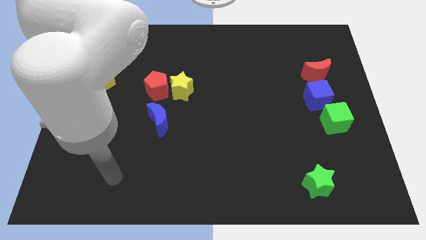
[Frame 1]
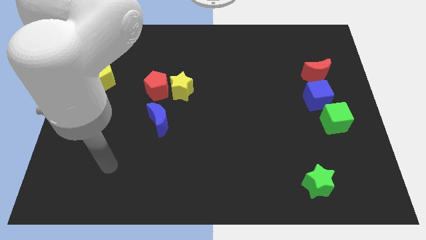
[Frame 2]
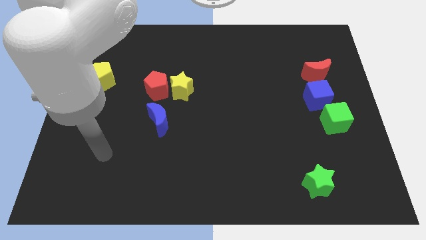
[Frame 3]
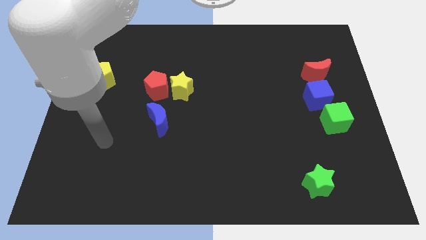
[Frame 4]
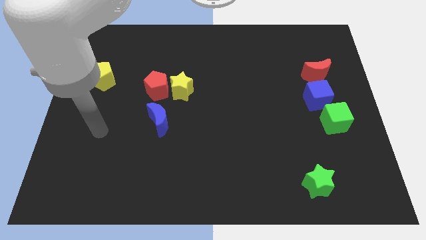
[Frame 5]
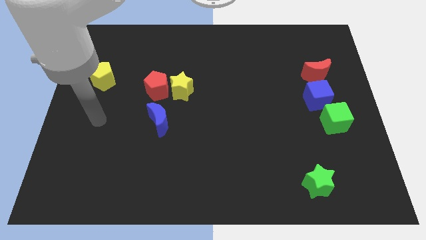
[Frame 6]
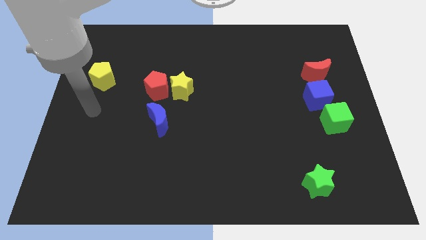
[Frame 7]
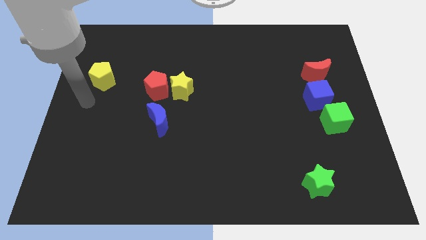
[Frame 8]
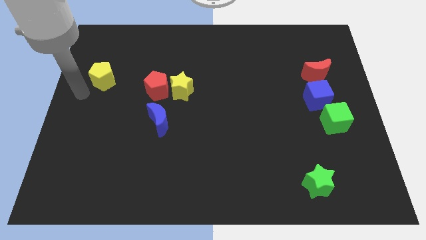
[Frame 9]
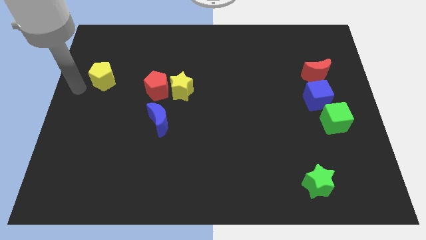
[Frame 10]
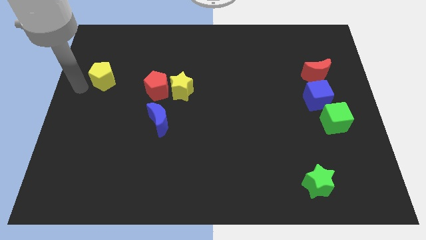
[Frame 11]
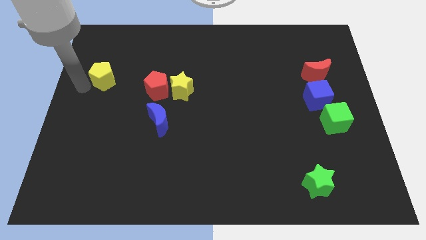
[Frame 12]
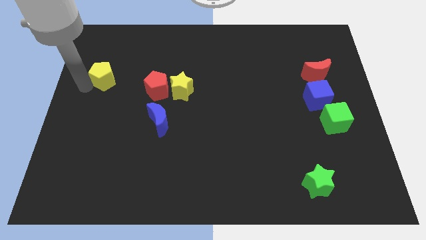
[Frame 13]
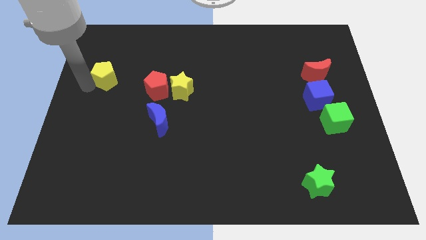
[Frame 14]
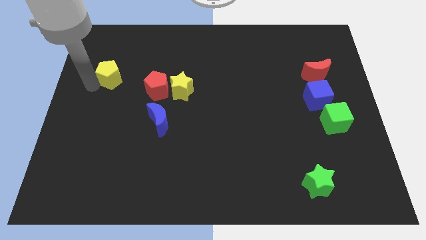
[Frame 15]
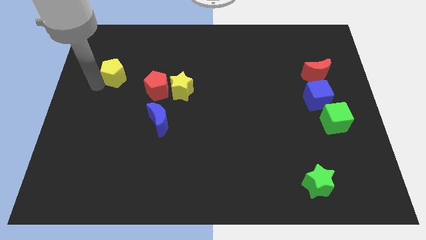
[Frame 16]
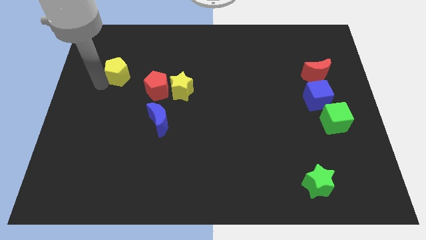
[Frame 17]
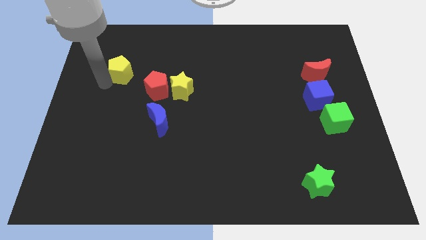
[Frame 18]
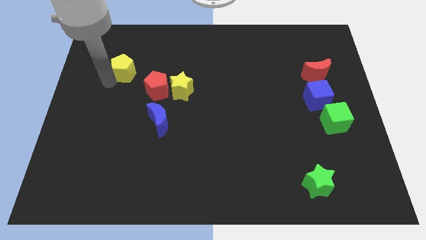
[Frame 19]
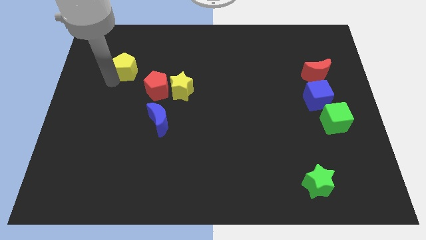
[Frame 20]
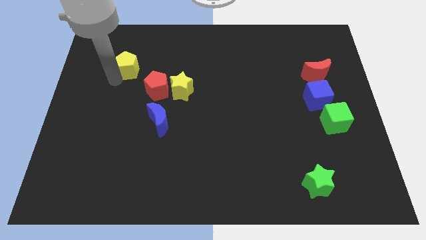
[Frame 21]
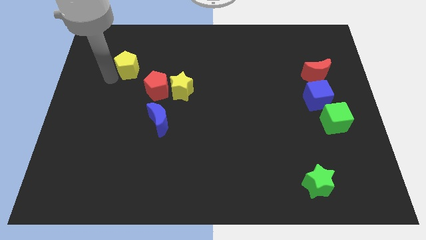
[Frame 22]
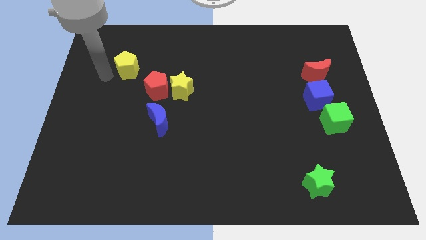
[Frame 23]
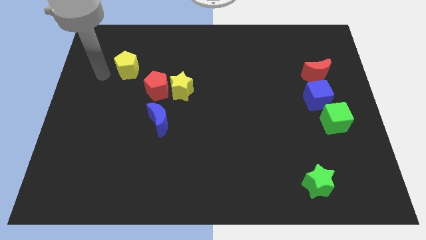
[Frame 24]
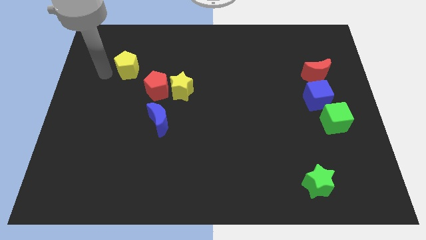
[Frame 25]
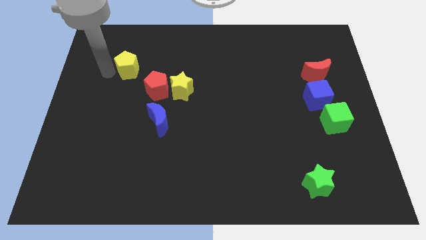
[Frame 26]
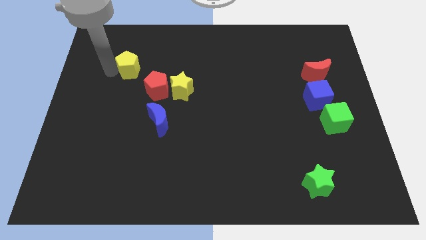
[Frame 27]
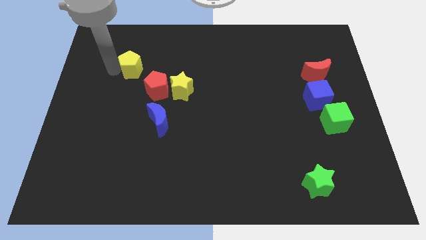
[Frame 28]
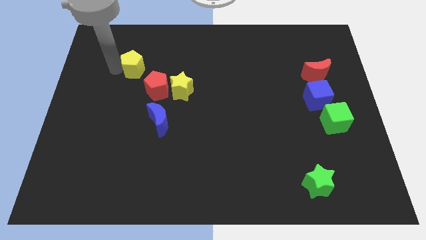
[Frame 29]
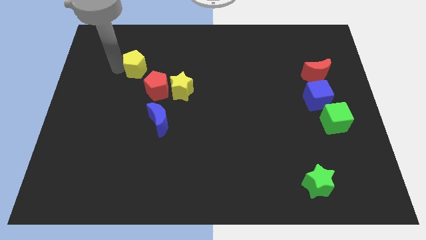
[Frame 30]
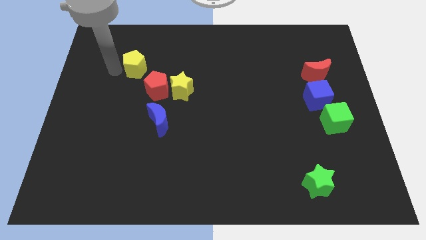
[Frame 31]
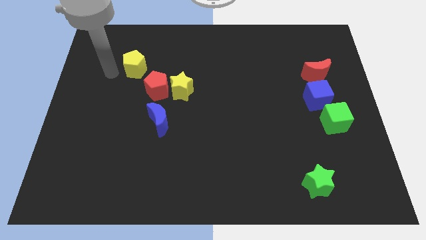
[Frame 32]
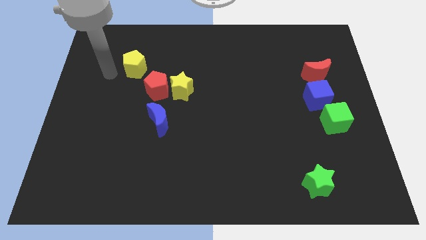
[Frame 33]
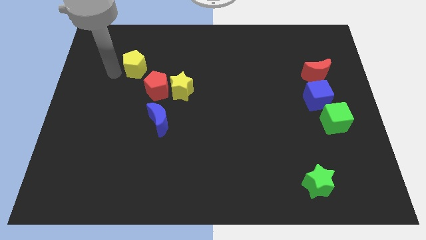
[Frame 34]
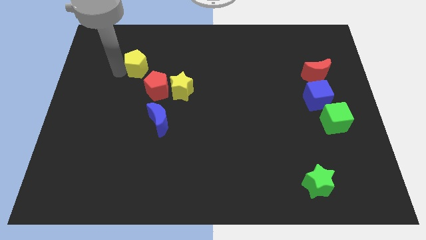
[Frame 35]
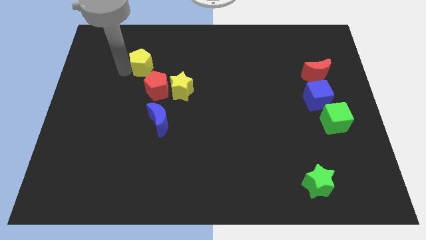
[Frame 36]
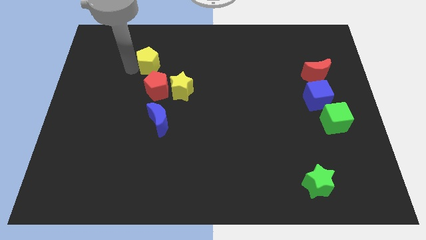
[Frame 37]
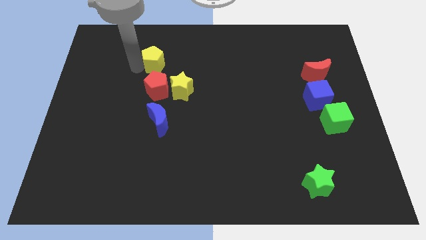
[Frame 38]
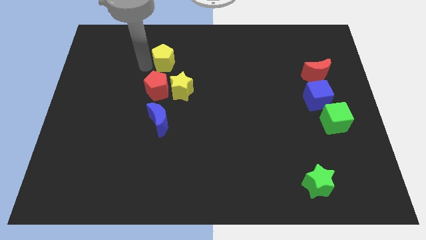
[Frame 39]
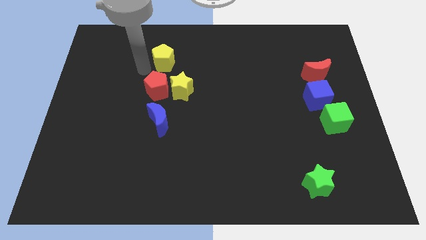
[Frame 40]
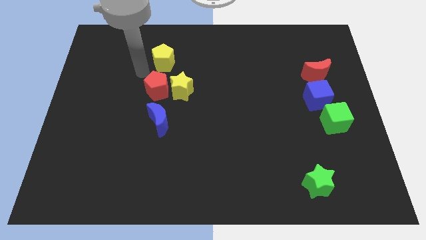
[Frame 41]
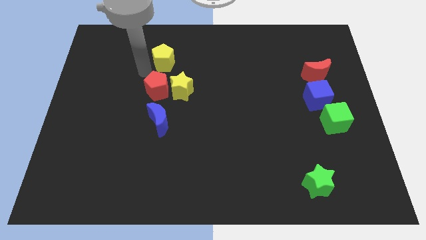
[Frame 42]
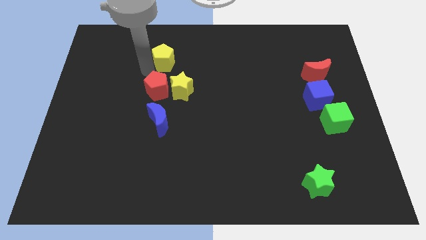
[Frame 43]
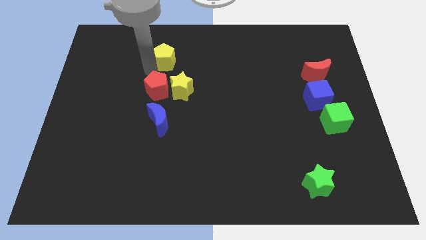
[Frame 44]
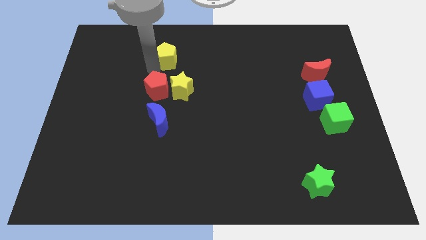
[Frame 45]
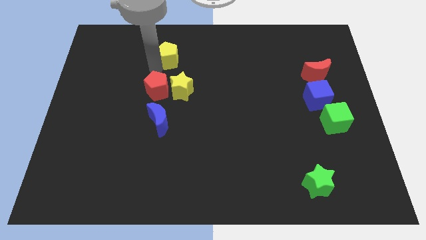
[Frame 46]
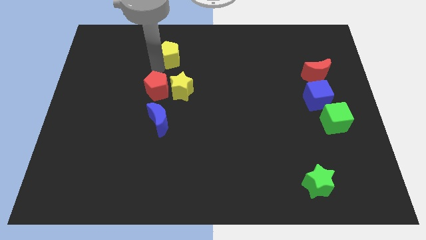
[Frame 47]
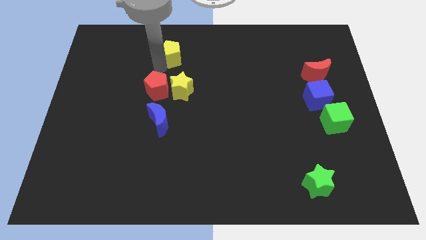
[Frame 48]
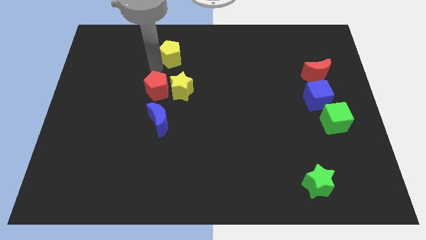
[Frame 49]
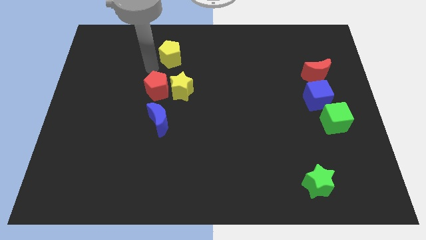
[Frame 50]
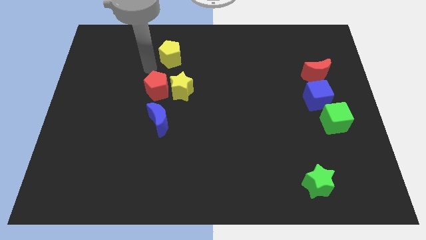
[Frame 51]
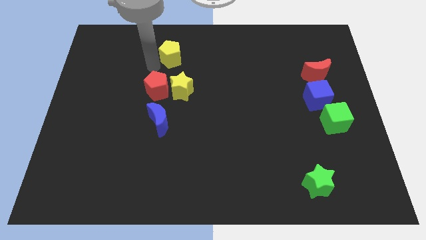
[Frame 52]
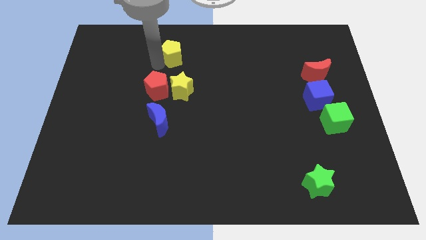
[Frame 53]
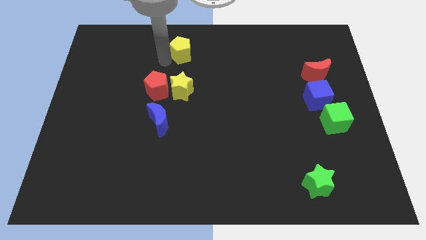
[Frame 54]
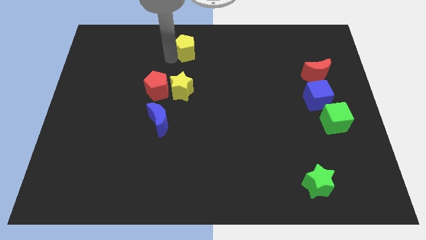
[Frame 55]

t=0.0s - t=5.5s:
move the yellow pentagon to the top side
